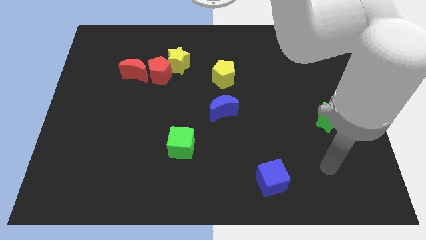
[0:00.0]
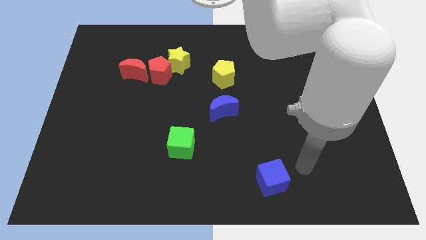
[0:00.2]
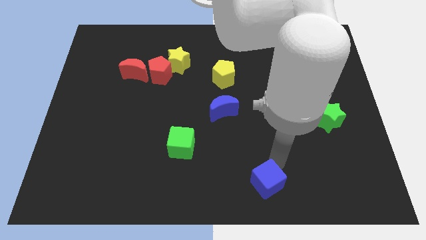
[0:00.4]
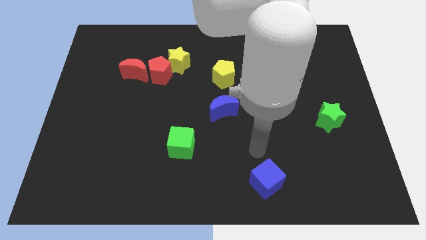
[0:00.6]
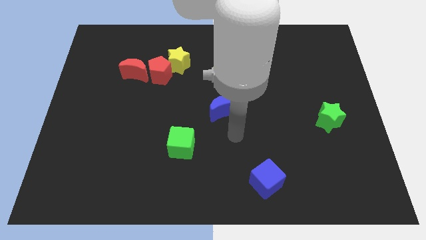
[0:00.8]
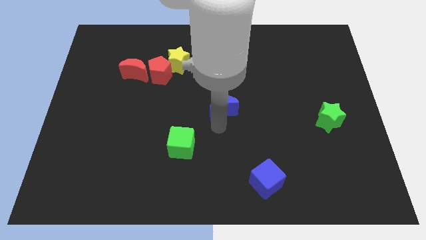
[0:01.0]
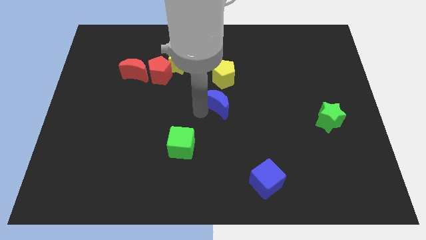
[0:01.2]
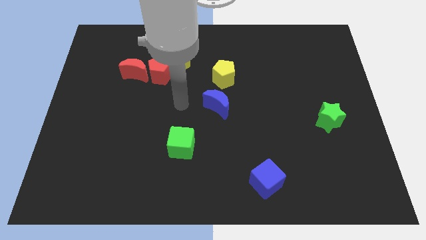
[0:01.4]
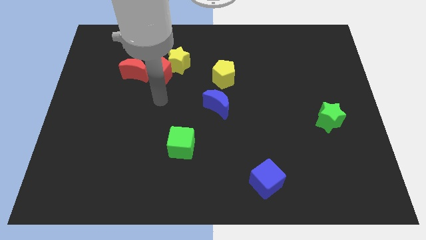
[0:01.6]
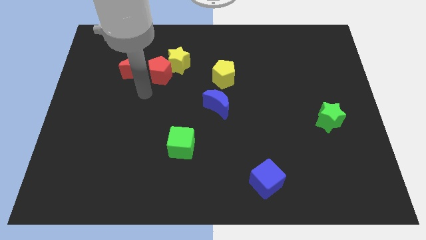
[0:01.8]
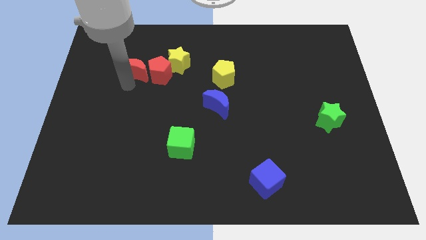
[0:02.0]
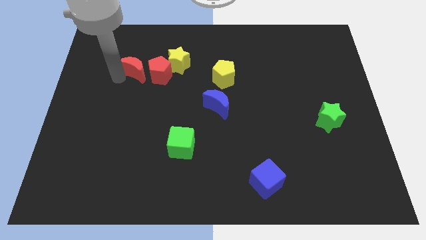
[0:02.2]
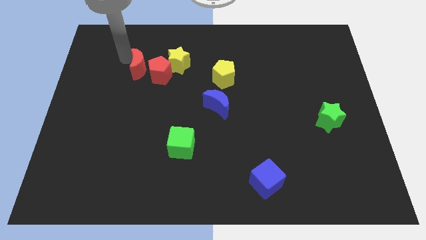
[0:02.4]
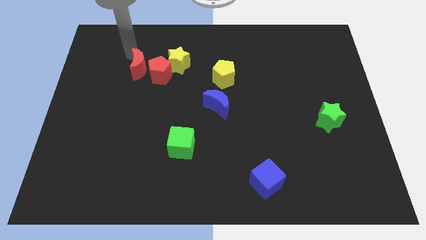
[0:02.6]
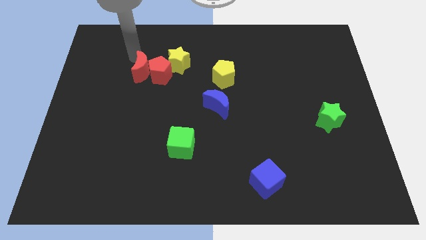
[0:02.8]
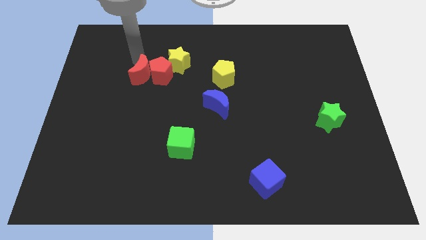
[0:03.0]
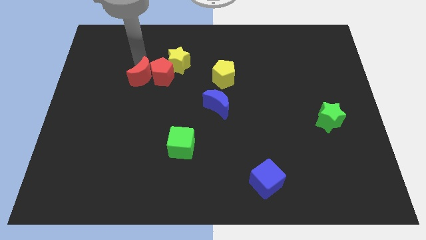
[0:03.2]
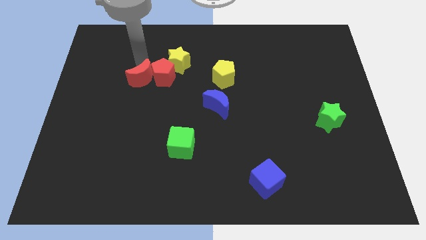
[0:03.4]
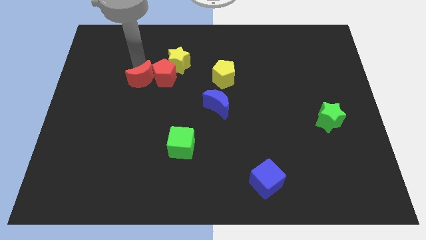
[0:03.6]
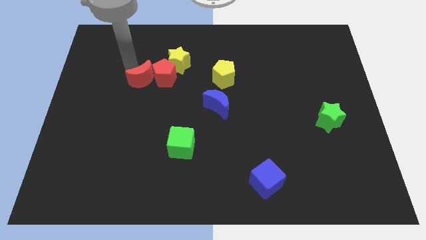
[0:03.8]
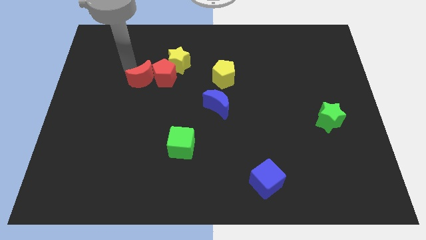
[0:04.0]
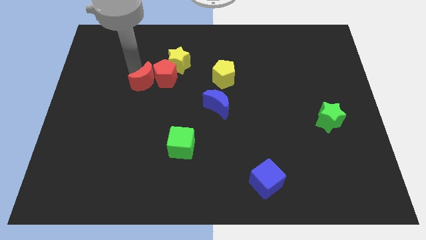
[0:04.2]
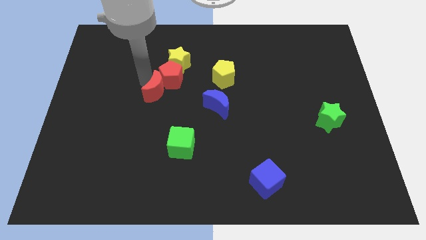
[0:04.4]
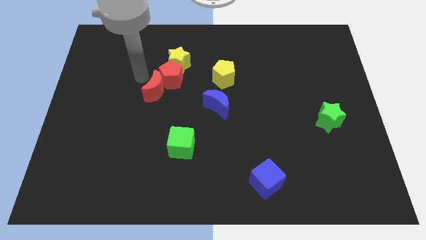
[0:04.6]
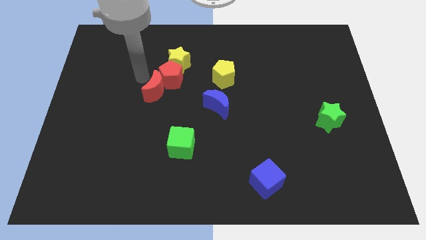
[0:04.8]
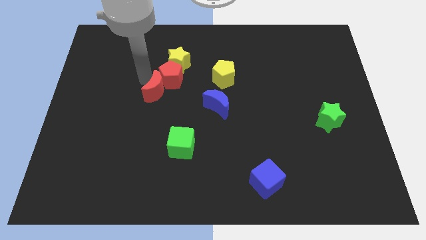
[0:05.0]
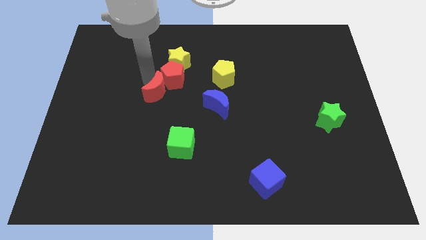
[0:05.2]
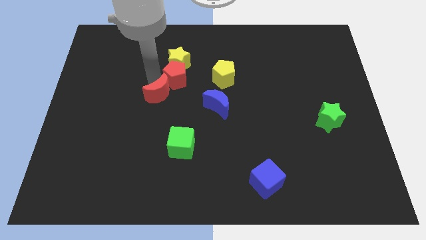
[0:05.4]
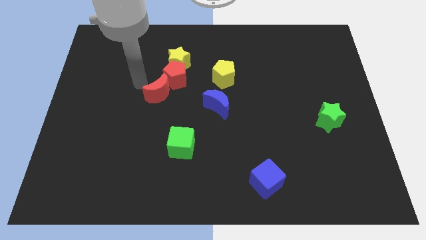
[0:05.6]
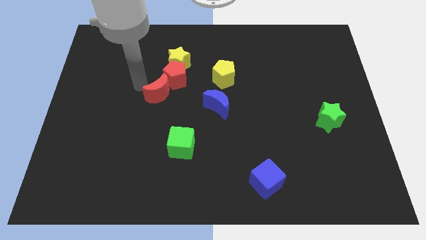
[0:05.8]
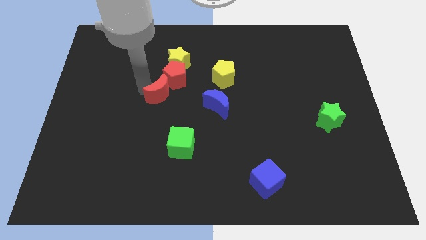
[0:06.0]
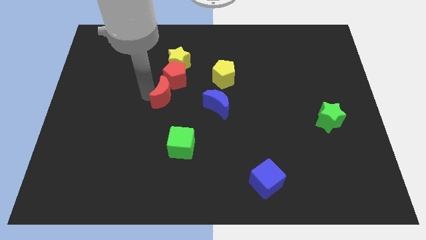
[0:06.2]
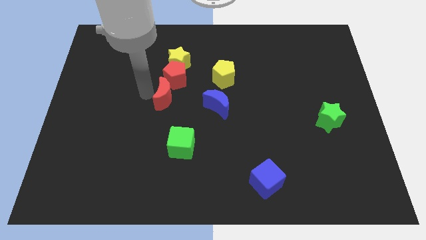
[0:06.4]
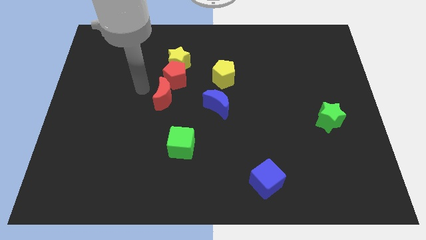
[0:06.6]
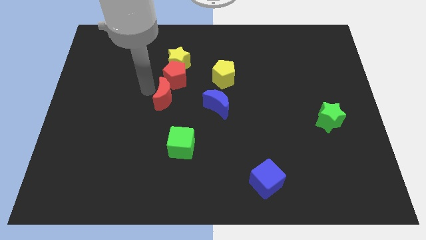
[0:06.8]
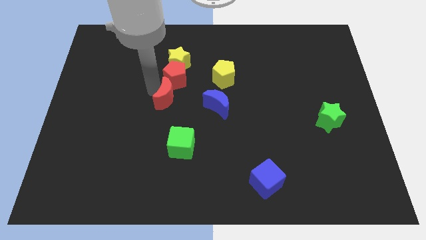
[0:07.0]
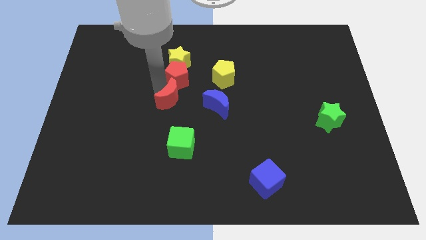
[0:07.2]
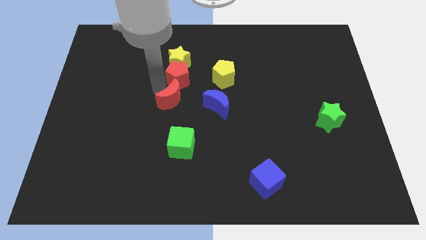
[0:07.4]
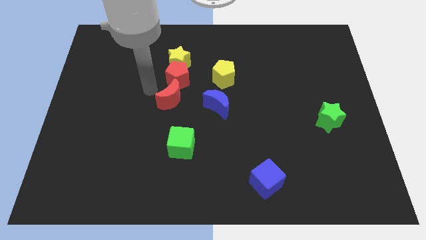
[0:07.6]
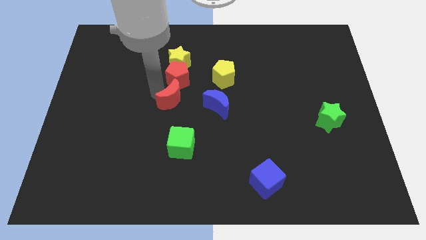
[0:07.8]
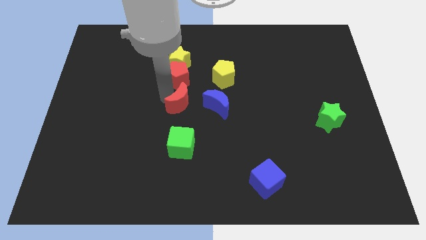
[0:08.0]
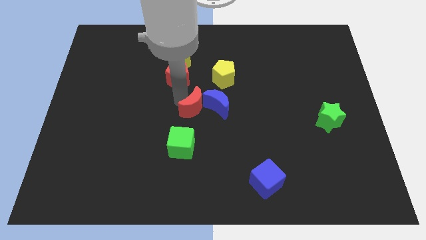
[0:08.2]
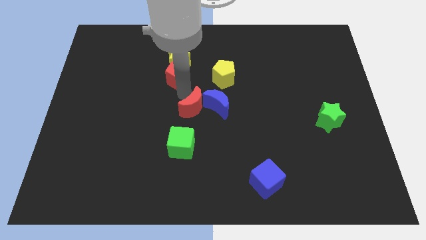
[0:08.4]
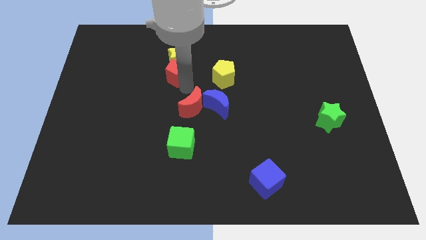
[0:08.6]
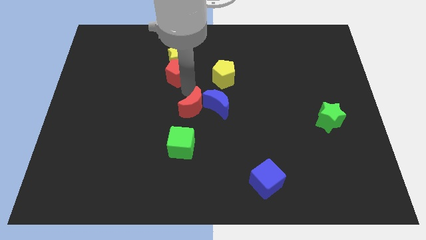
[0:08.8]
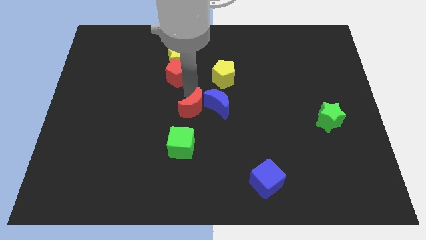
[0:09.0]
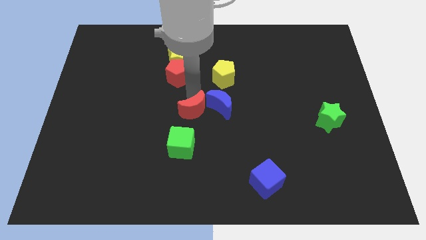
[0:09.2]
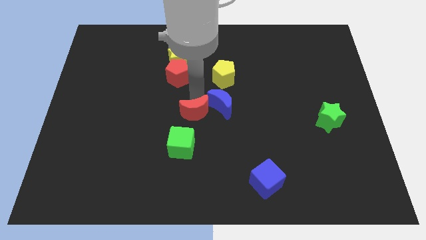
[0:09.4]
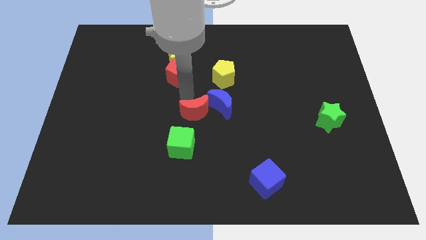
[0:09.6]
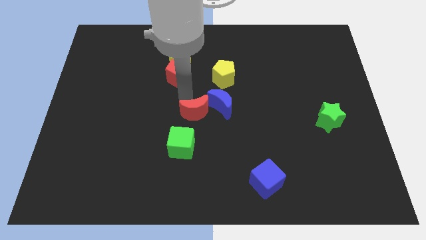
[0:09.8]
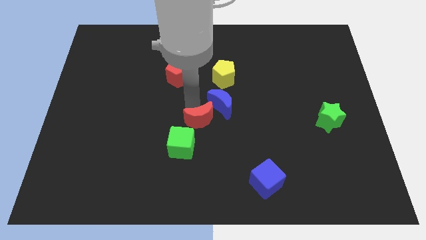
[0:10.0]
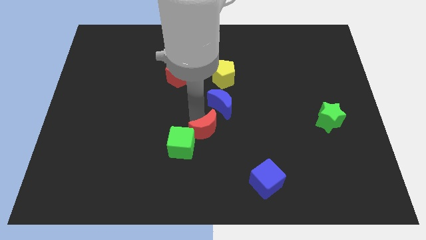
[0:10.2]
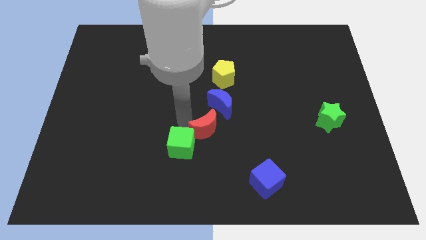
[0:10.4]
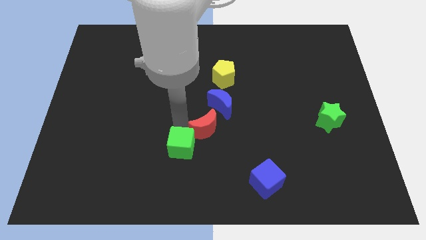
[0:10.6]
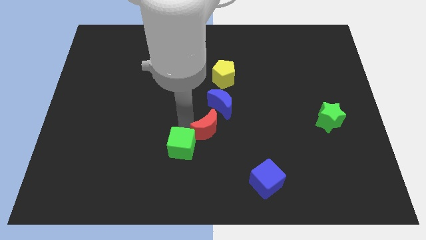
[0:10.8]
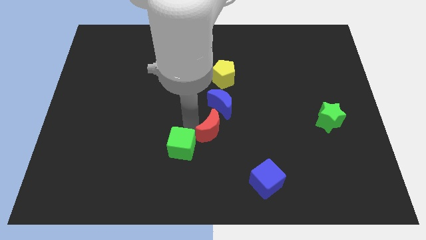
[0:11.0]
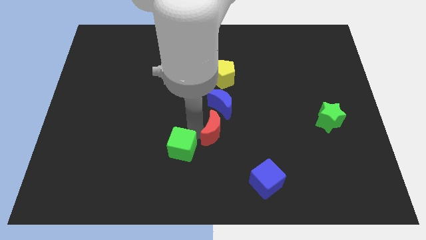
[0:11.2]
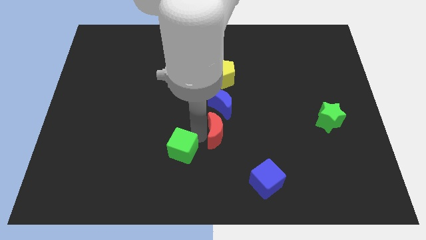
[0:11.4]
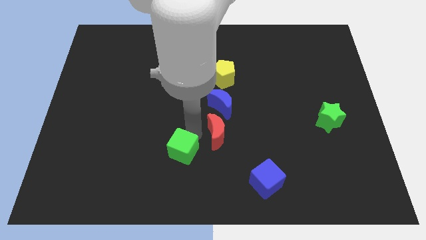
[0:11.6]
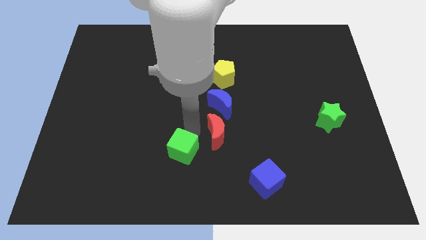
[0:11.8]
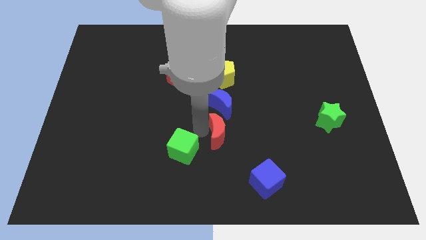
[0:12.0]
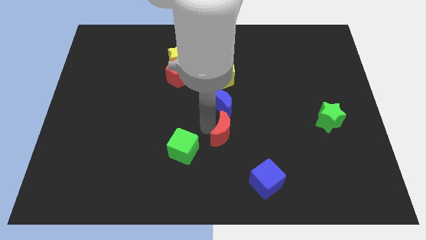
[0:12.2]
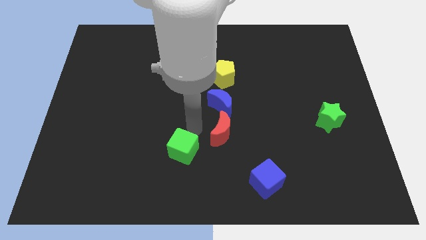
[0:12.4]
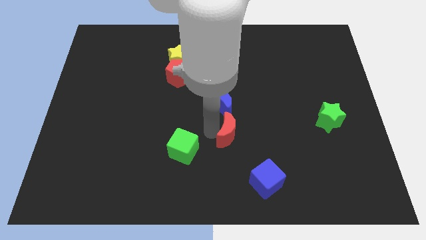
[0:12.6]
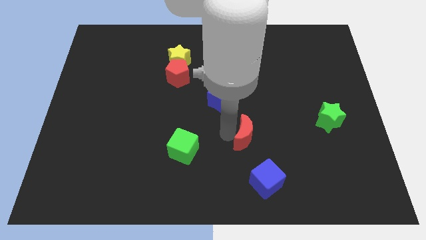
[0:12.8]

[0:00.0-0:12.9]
move the red moon to the top side of the blue cube
